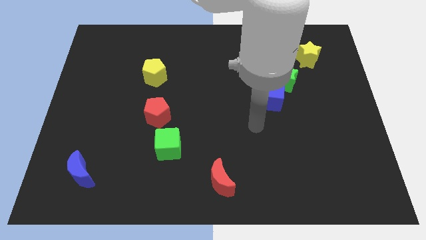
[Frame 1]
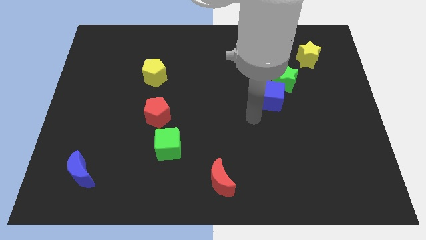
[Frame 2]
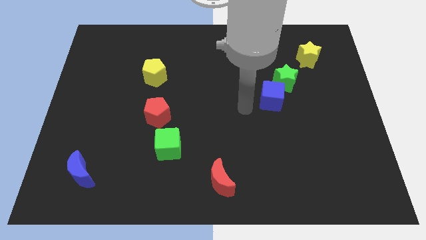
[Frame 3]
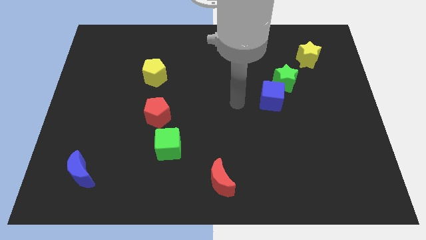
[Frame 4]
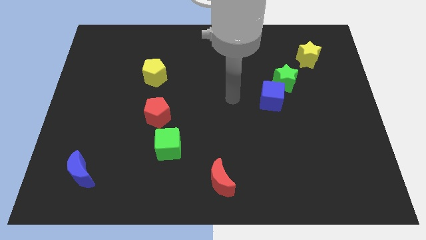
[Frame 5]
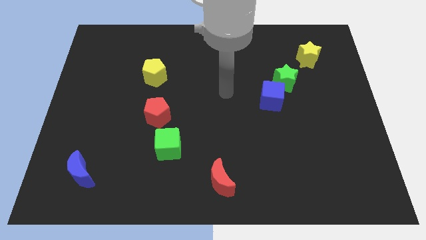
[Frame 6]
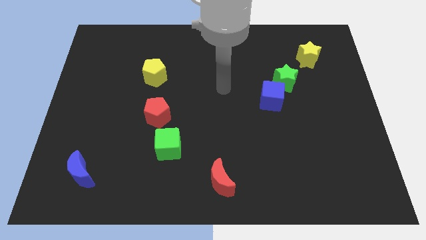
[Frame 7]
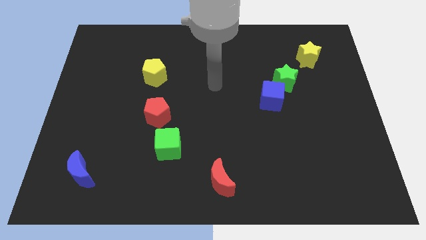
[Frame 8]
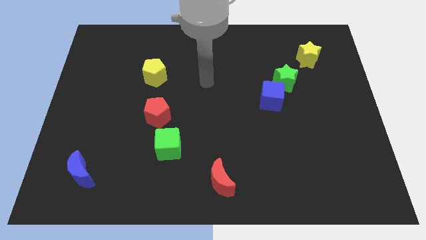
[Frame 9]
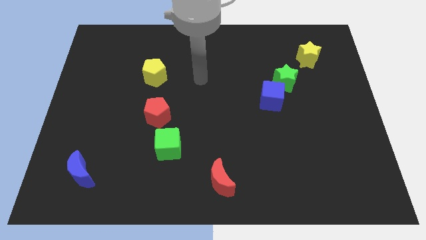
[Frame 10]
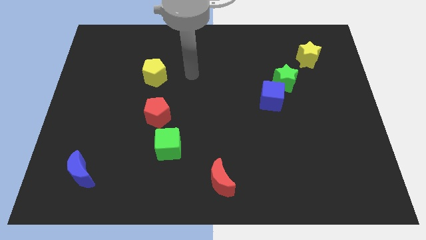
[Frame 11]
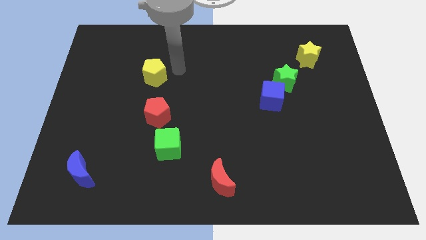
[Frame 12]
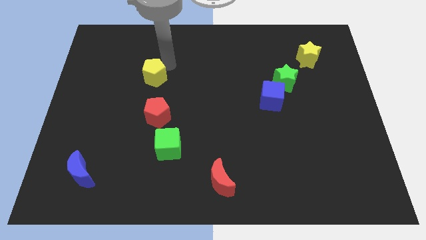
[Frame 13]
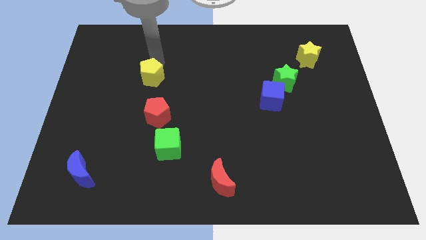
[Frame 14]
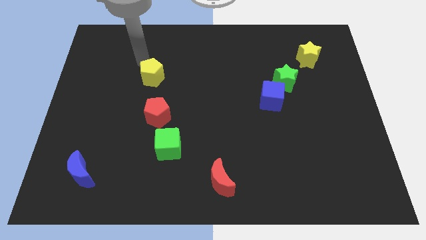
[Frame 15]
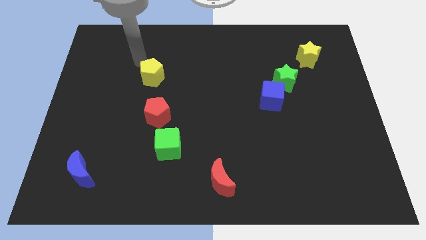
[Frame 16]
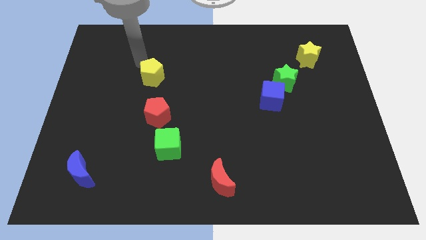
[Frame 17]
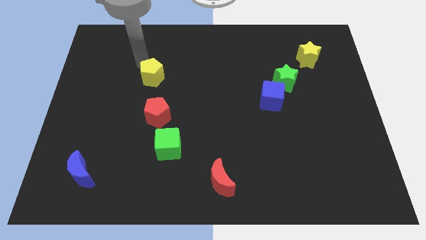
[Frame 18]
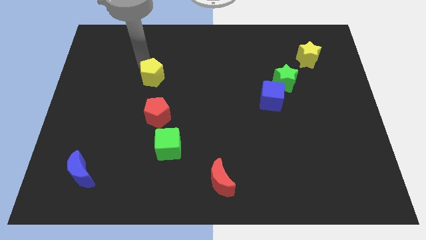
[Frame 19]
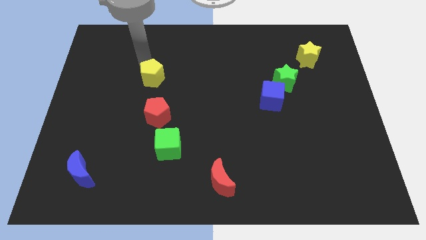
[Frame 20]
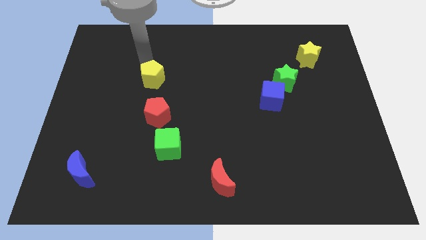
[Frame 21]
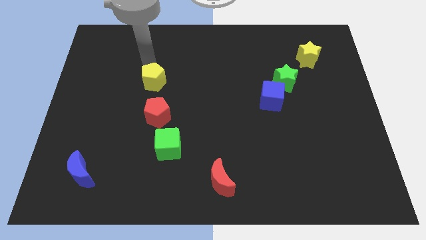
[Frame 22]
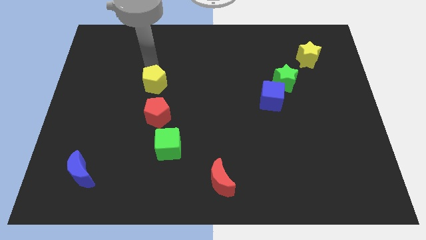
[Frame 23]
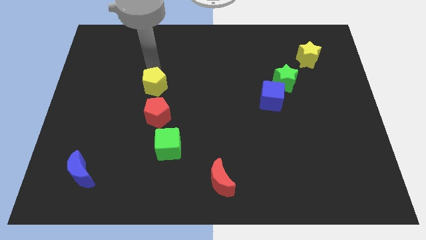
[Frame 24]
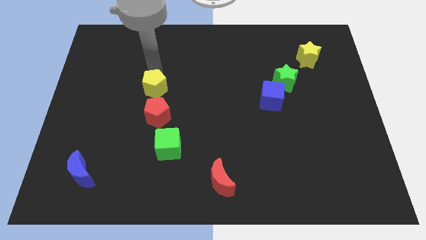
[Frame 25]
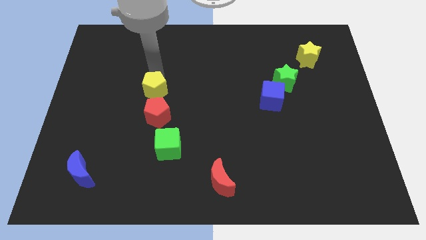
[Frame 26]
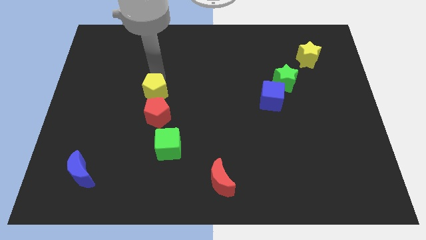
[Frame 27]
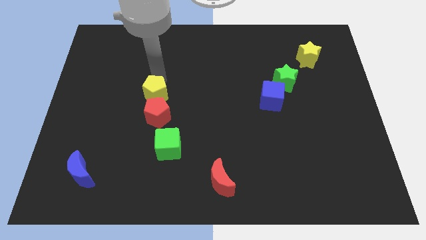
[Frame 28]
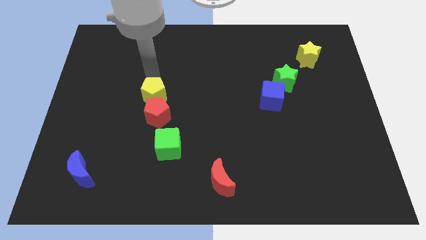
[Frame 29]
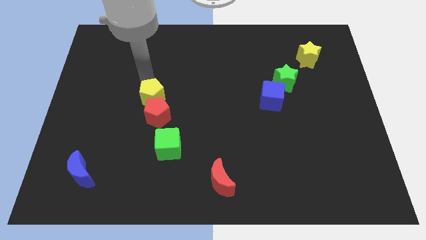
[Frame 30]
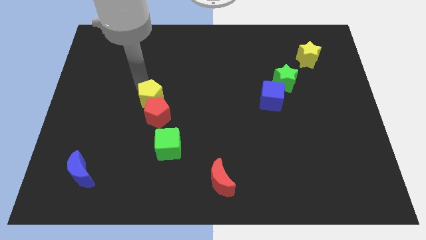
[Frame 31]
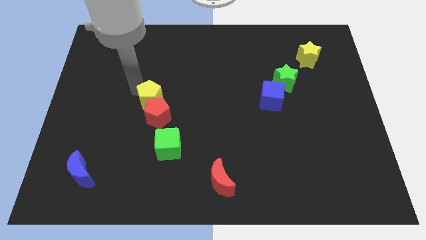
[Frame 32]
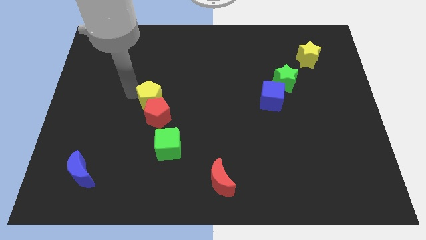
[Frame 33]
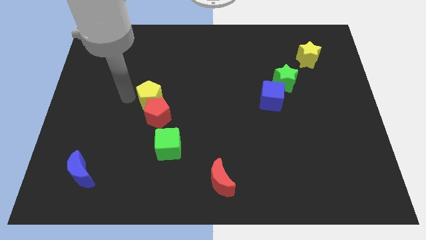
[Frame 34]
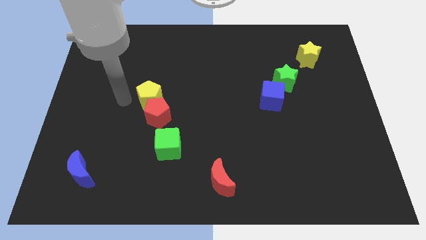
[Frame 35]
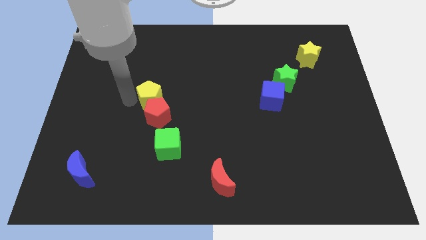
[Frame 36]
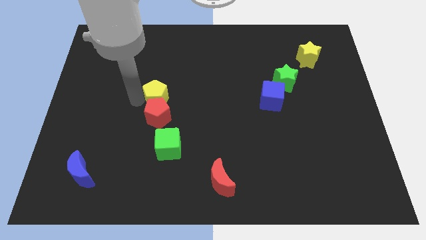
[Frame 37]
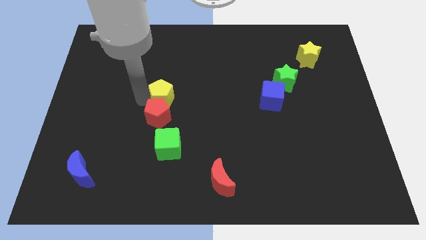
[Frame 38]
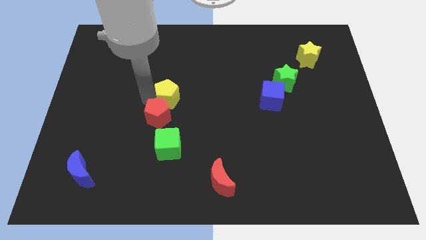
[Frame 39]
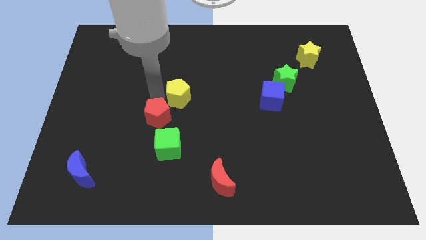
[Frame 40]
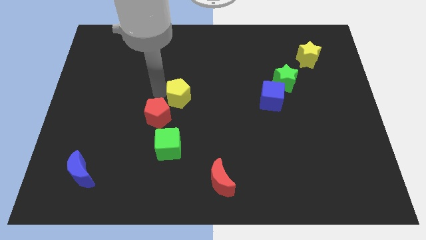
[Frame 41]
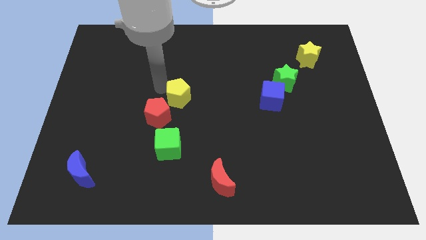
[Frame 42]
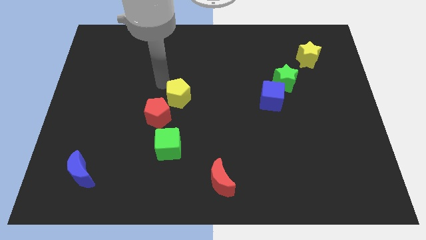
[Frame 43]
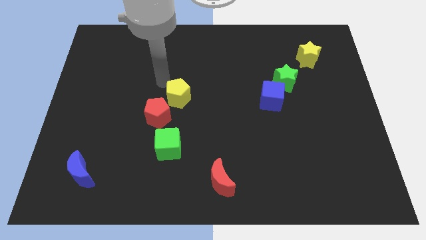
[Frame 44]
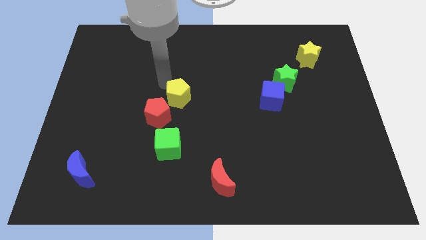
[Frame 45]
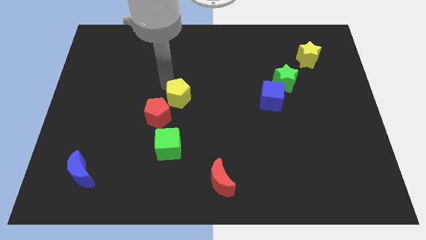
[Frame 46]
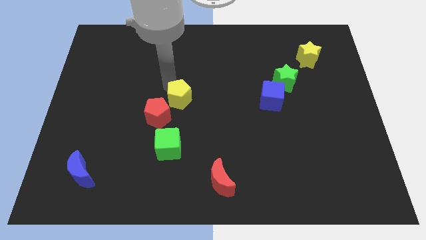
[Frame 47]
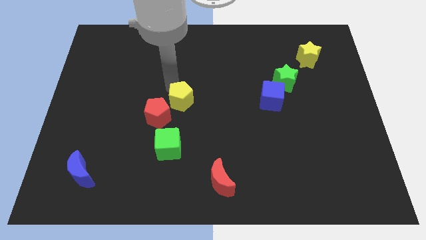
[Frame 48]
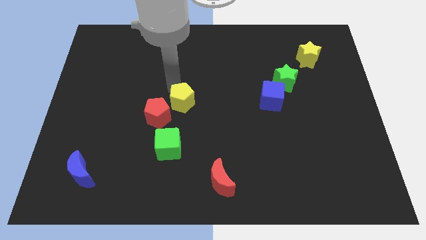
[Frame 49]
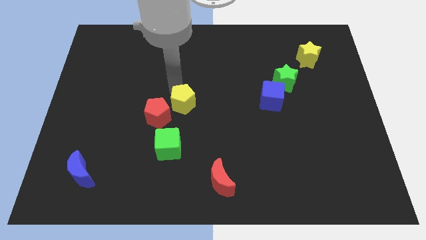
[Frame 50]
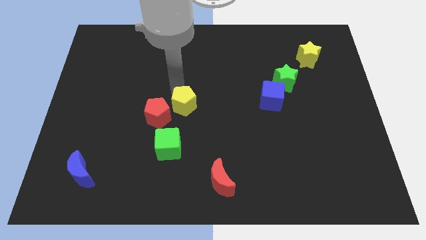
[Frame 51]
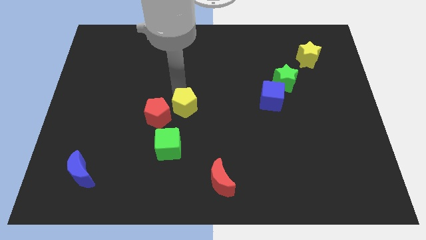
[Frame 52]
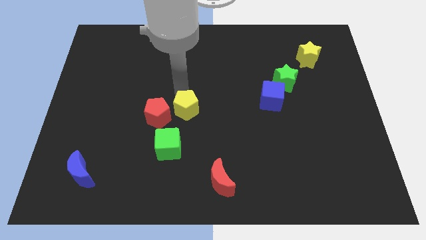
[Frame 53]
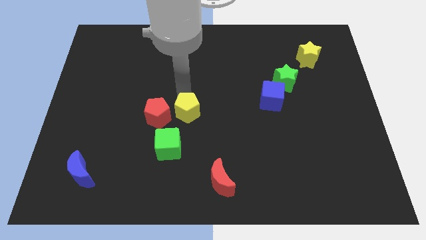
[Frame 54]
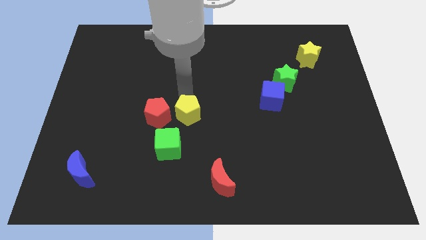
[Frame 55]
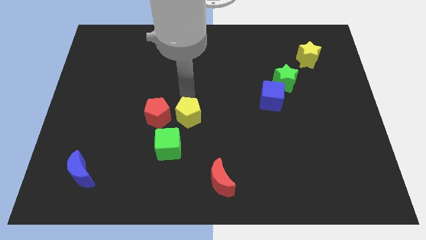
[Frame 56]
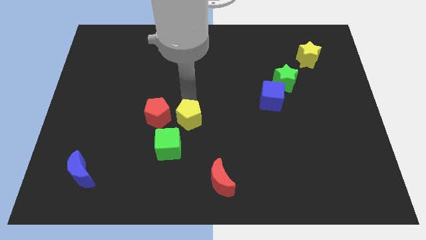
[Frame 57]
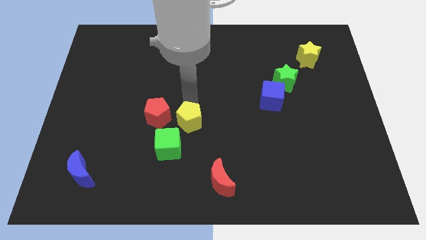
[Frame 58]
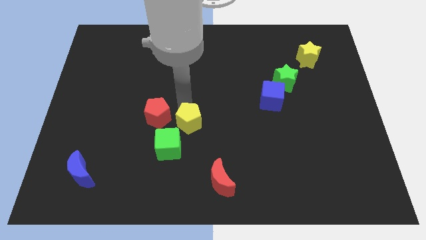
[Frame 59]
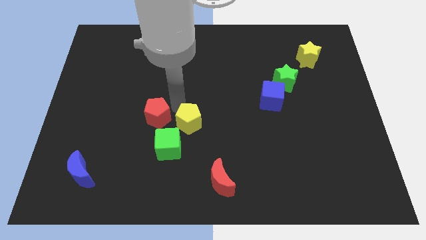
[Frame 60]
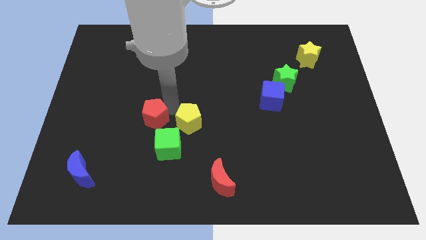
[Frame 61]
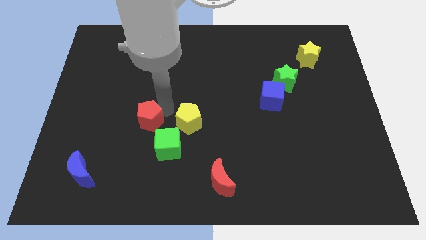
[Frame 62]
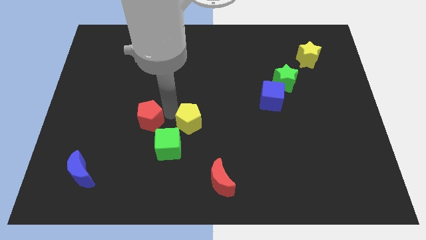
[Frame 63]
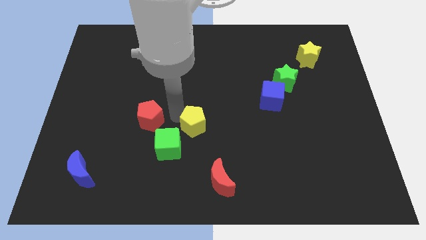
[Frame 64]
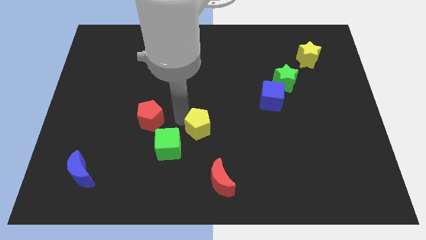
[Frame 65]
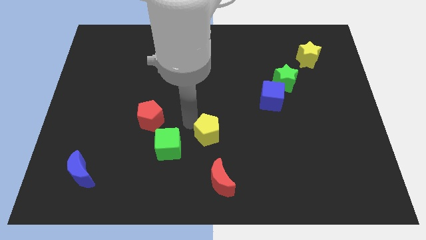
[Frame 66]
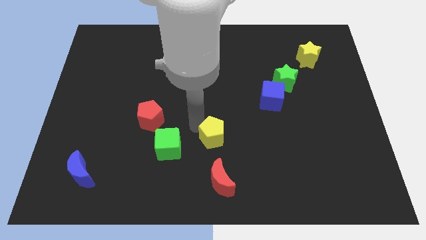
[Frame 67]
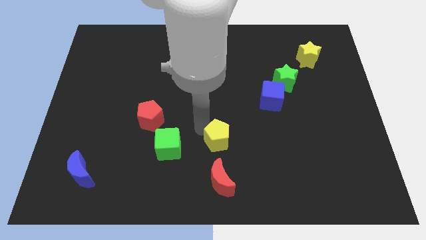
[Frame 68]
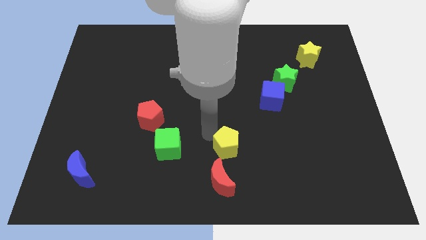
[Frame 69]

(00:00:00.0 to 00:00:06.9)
slide the yellow pentagon diagonally up and to the right of the red moon

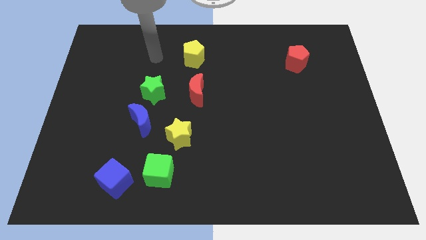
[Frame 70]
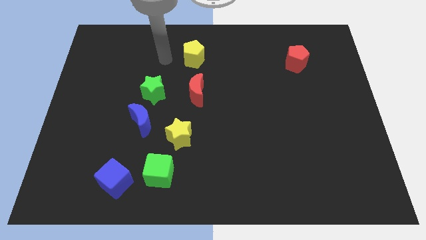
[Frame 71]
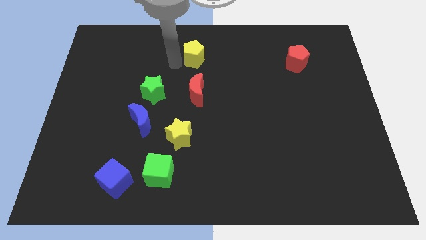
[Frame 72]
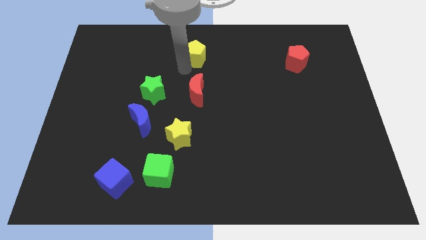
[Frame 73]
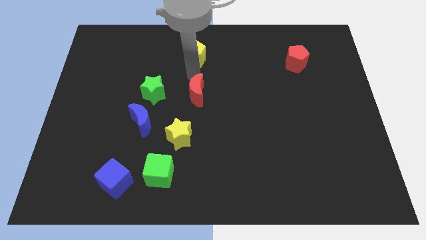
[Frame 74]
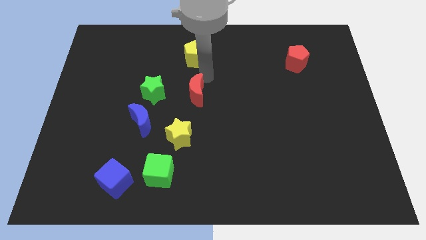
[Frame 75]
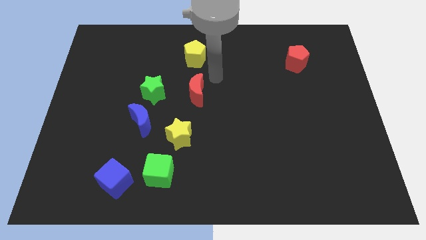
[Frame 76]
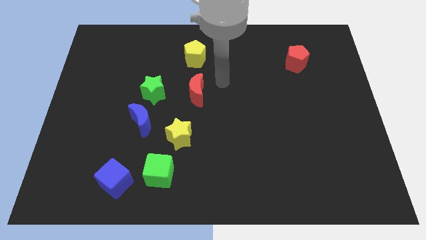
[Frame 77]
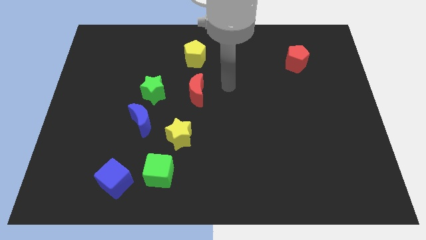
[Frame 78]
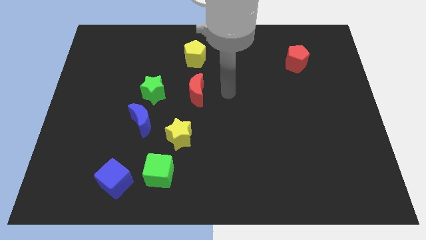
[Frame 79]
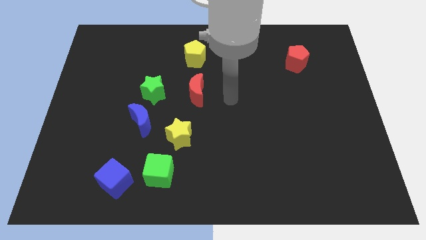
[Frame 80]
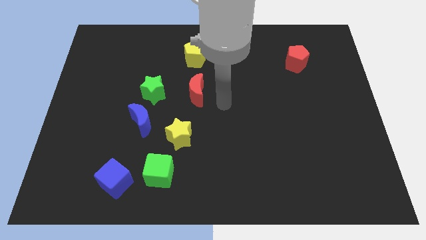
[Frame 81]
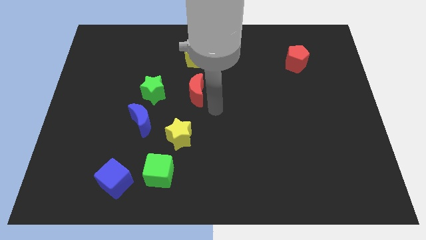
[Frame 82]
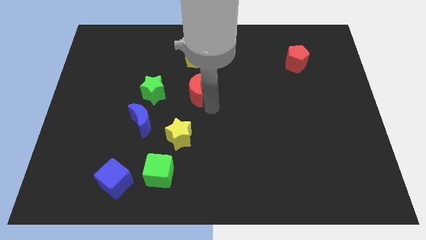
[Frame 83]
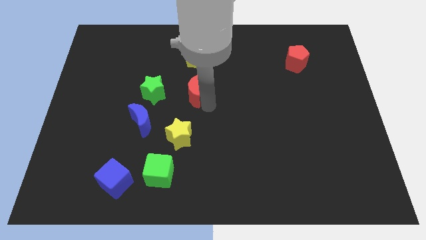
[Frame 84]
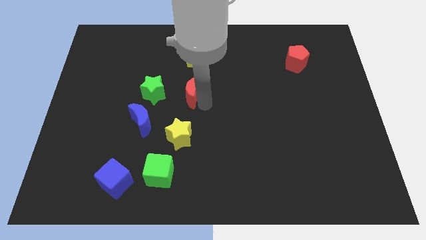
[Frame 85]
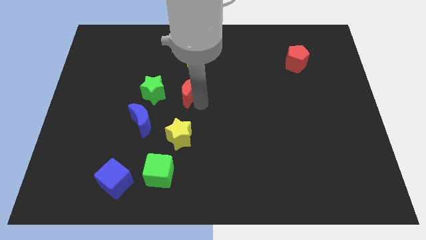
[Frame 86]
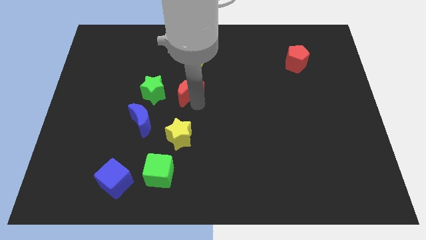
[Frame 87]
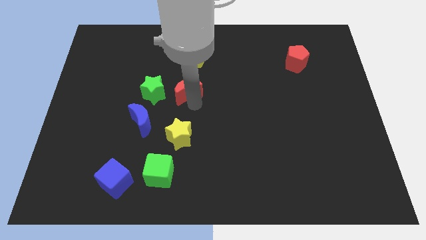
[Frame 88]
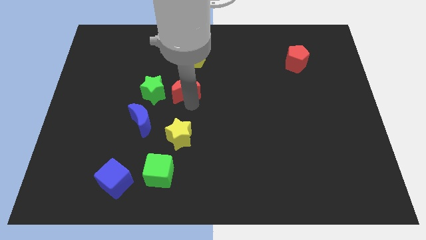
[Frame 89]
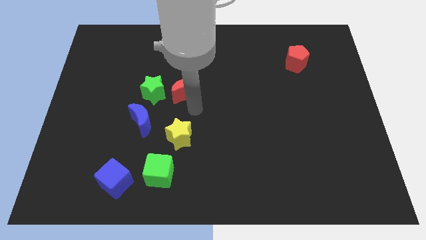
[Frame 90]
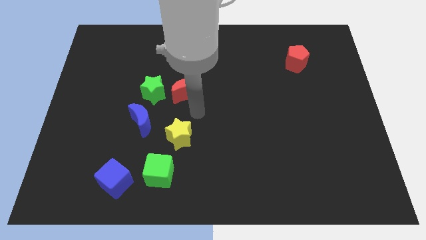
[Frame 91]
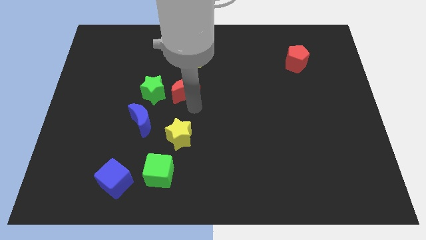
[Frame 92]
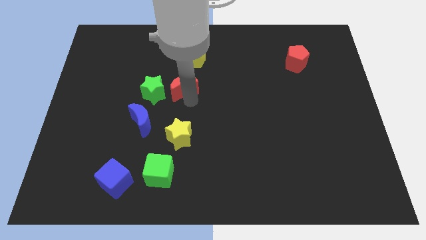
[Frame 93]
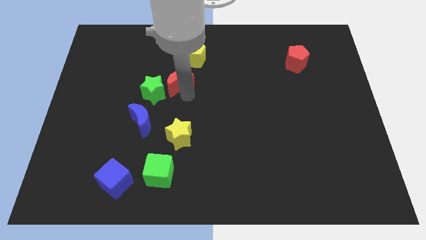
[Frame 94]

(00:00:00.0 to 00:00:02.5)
push the red moon to the bottom left of the yellow pentagon
